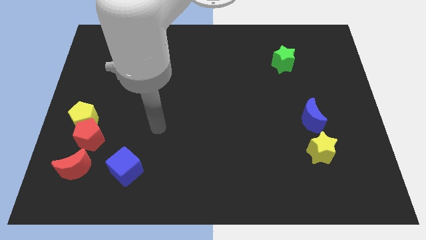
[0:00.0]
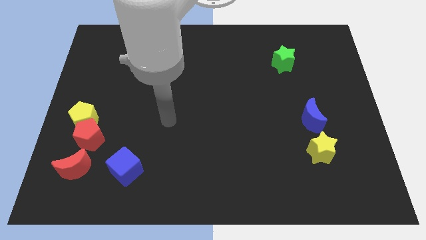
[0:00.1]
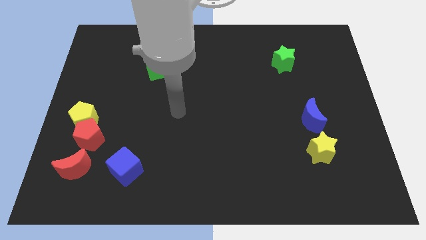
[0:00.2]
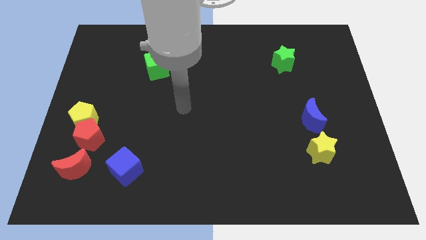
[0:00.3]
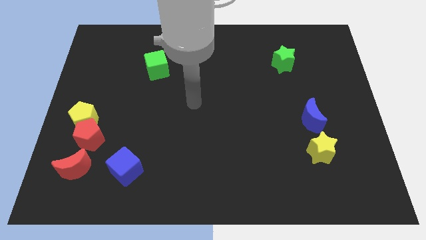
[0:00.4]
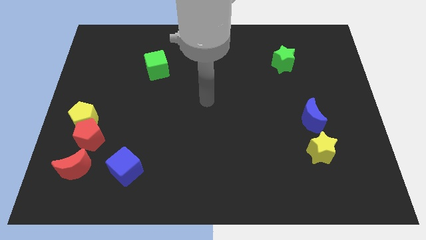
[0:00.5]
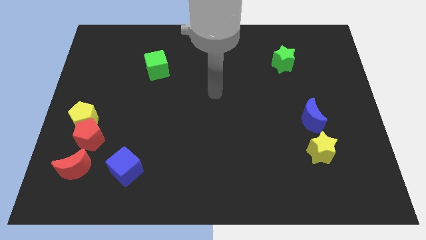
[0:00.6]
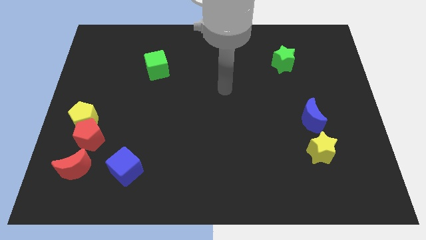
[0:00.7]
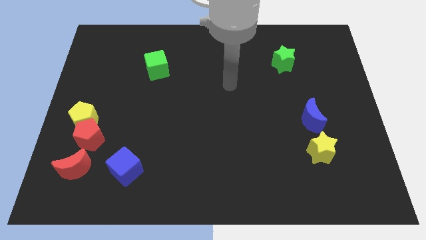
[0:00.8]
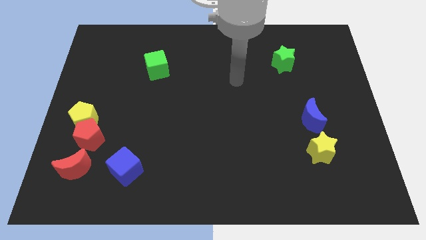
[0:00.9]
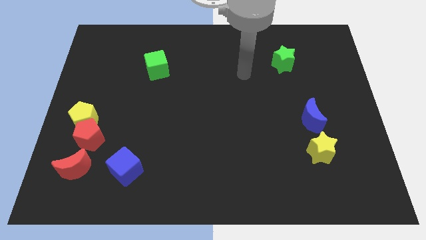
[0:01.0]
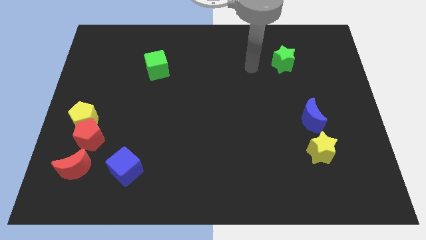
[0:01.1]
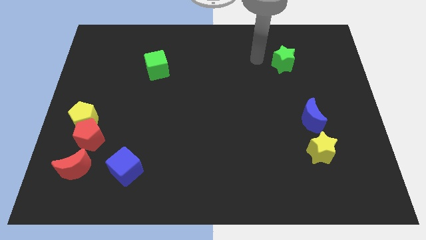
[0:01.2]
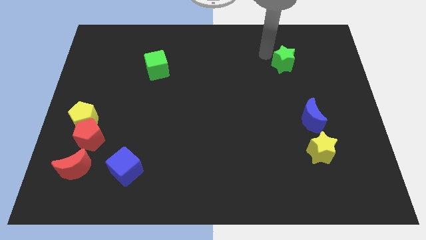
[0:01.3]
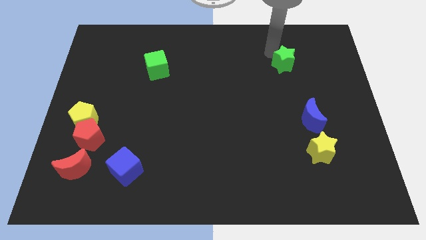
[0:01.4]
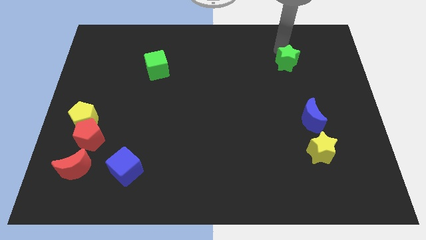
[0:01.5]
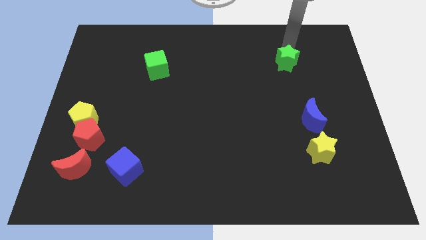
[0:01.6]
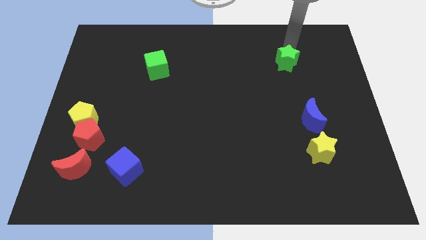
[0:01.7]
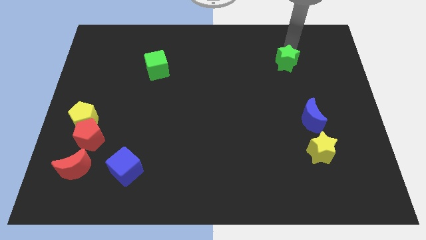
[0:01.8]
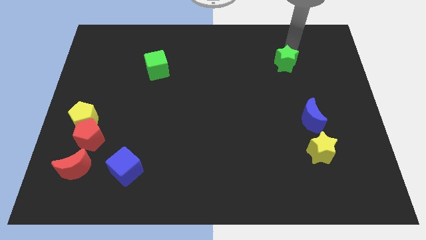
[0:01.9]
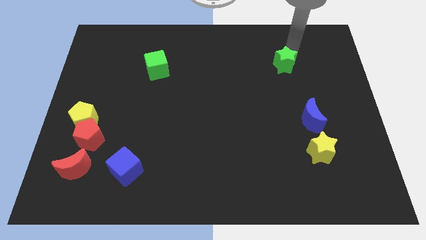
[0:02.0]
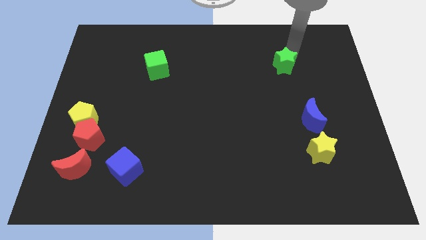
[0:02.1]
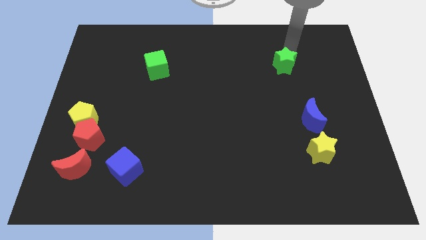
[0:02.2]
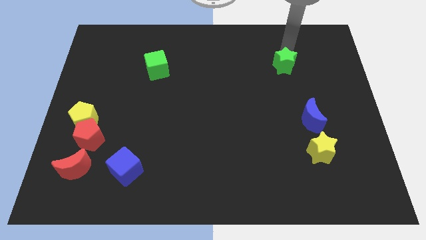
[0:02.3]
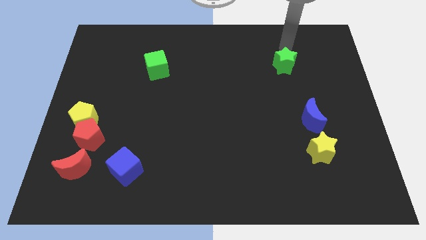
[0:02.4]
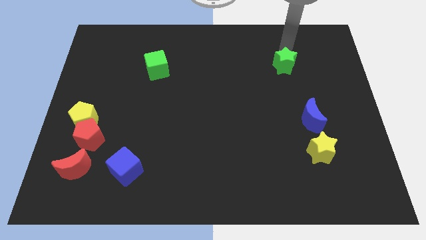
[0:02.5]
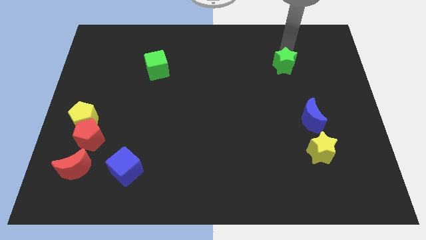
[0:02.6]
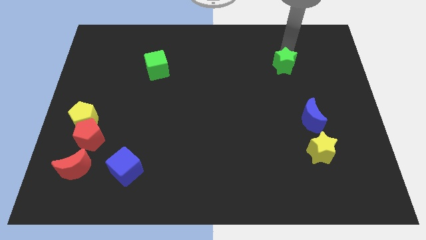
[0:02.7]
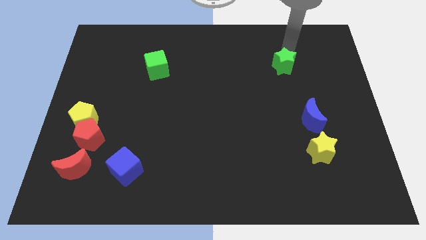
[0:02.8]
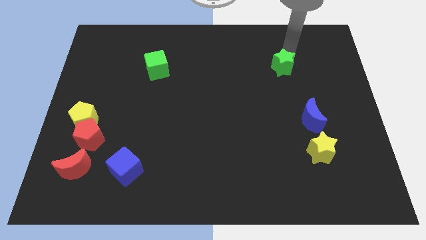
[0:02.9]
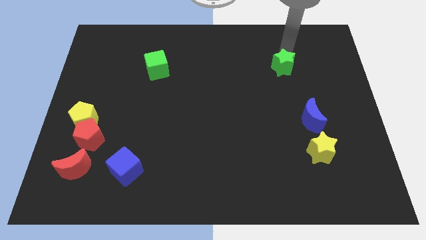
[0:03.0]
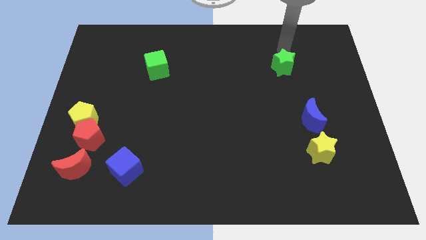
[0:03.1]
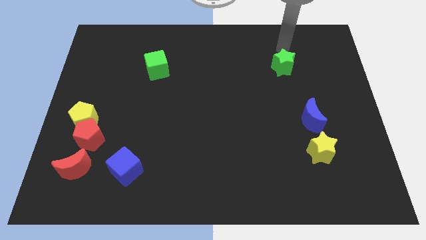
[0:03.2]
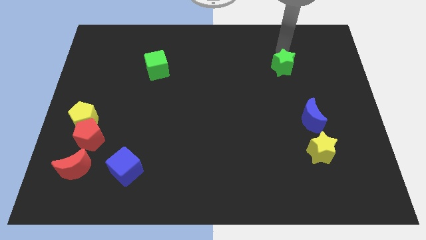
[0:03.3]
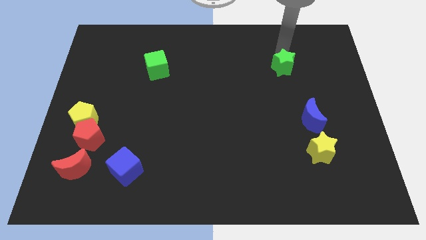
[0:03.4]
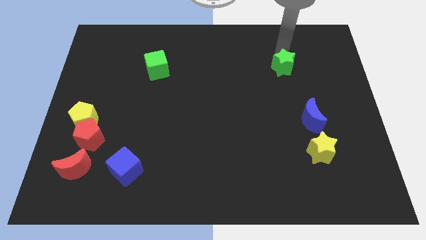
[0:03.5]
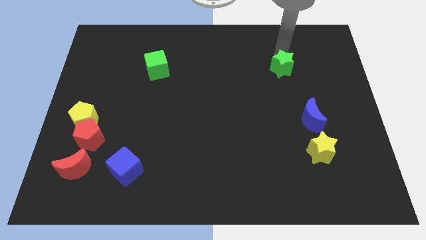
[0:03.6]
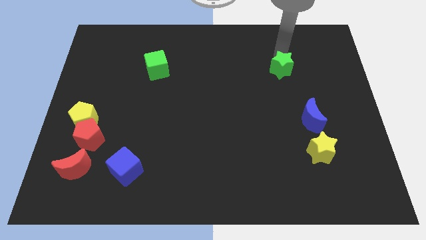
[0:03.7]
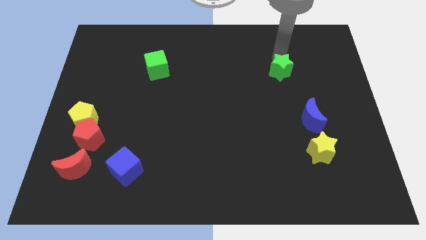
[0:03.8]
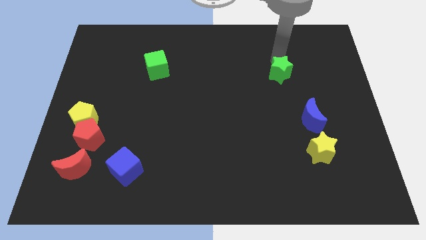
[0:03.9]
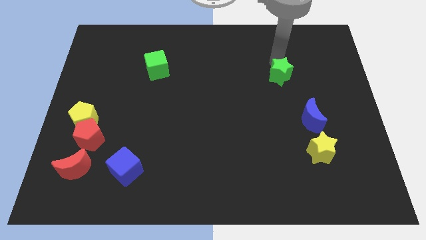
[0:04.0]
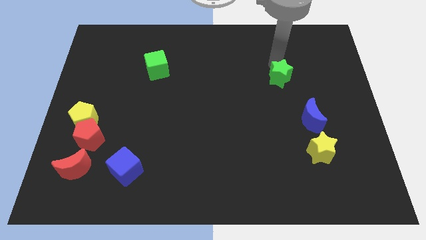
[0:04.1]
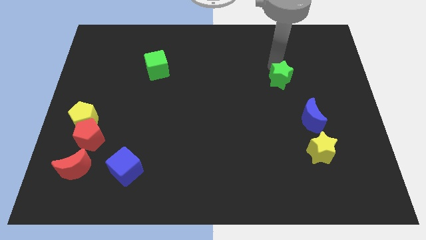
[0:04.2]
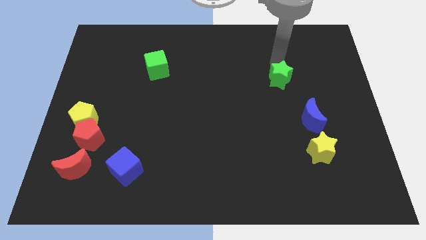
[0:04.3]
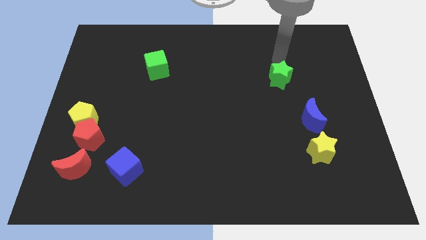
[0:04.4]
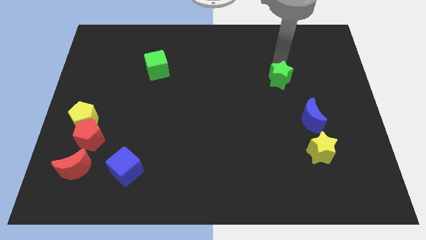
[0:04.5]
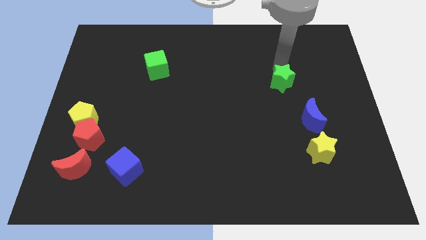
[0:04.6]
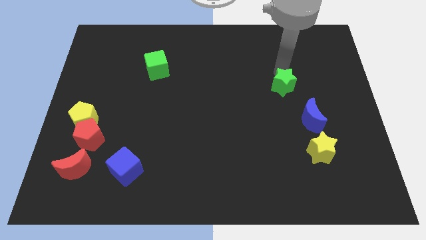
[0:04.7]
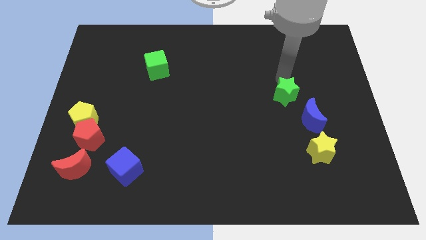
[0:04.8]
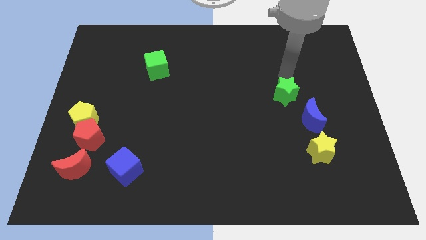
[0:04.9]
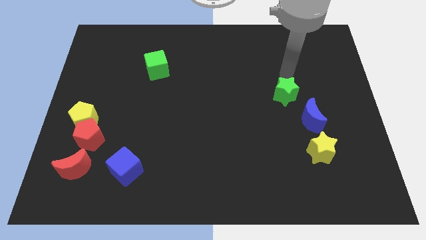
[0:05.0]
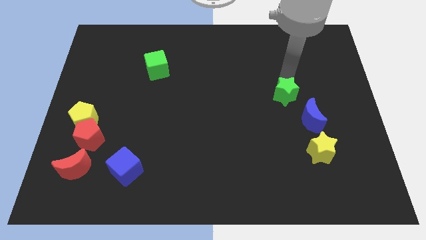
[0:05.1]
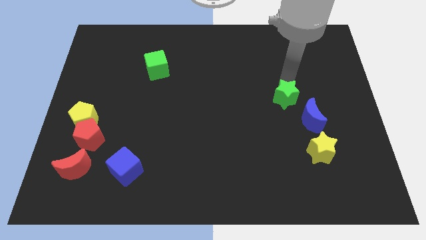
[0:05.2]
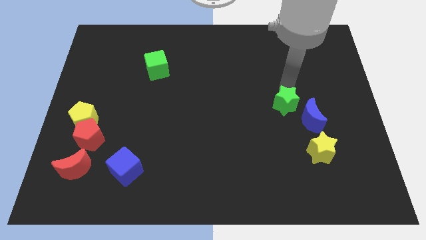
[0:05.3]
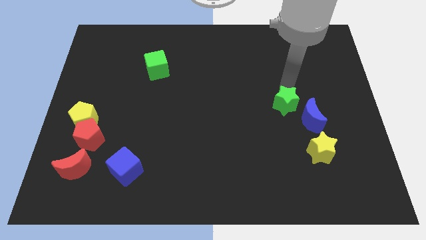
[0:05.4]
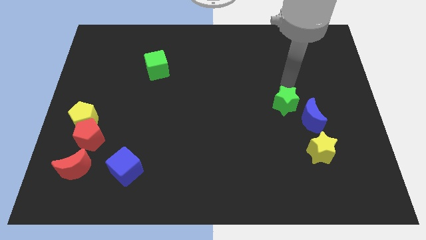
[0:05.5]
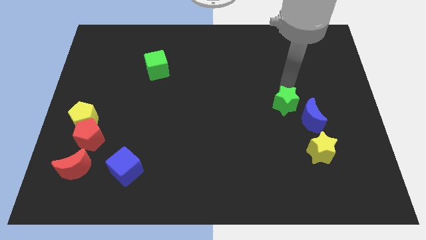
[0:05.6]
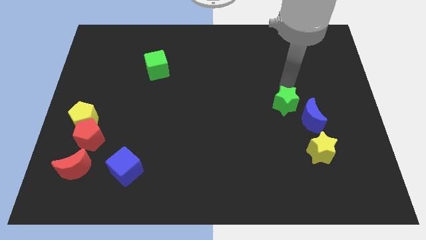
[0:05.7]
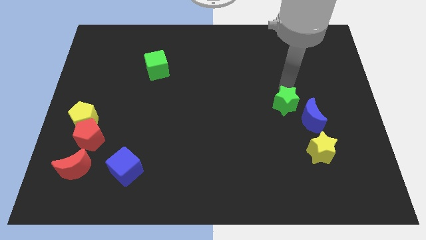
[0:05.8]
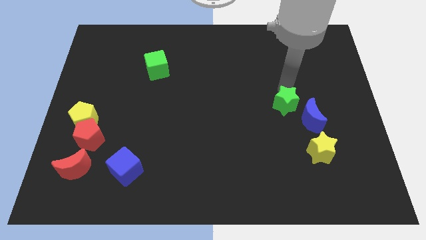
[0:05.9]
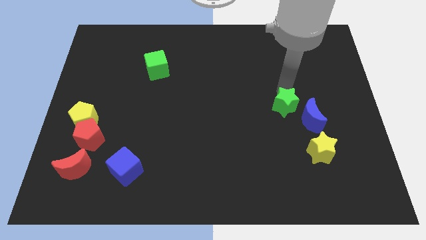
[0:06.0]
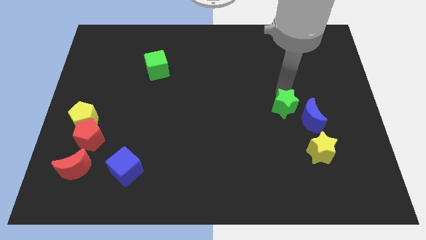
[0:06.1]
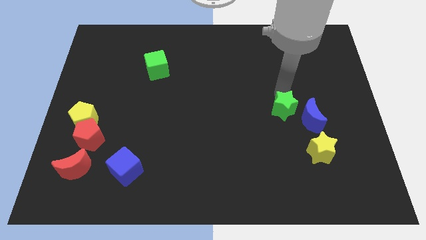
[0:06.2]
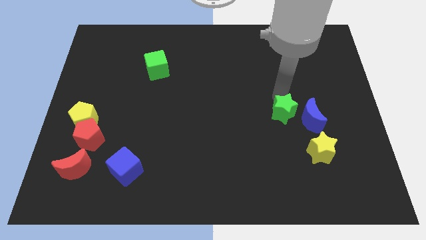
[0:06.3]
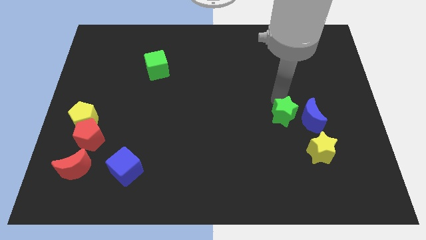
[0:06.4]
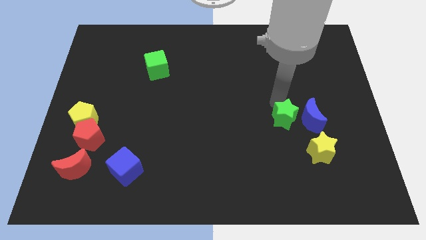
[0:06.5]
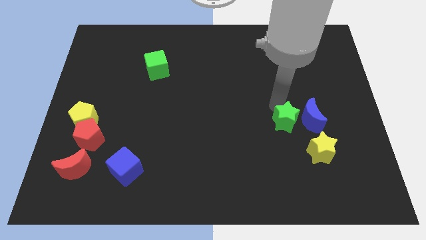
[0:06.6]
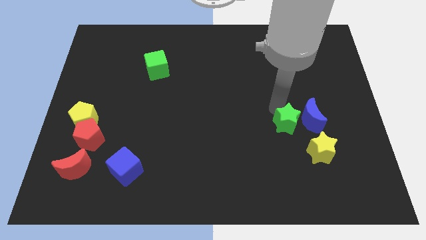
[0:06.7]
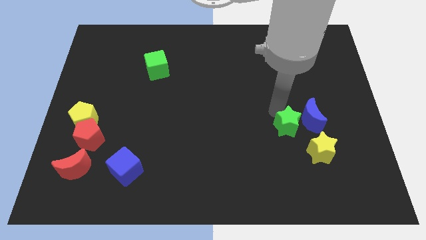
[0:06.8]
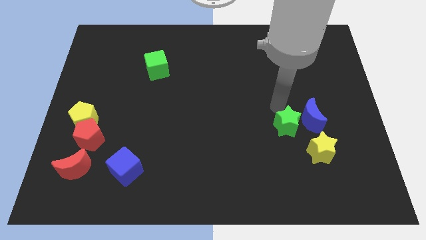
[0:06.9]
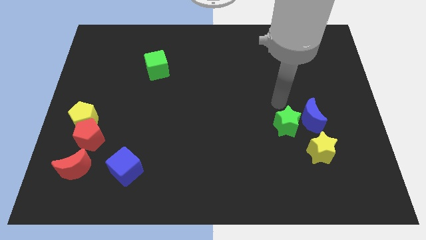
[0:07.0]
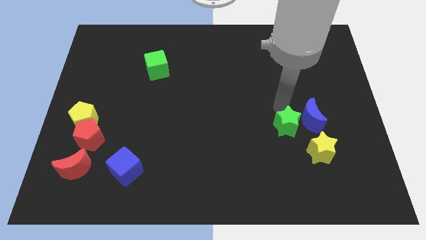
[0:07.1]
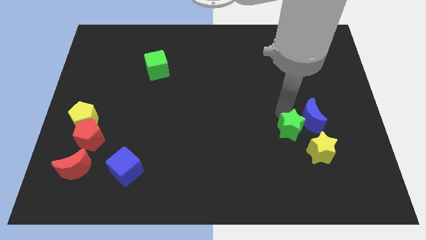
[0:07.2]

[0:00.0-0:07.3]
move the green star downwards

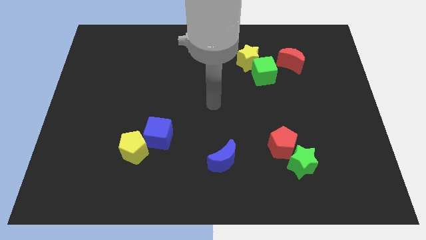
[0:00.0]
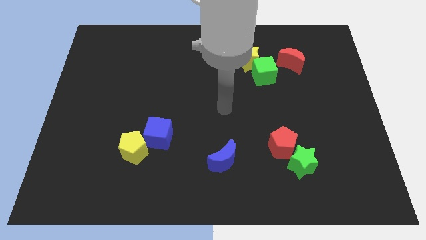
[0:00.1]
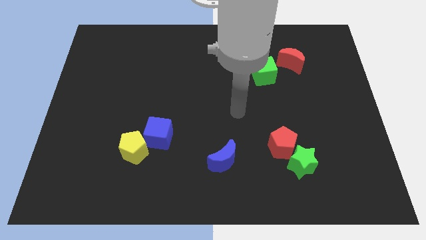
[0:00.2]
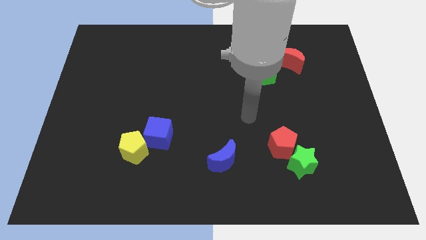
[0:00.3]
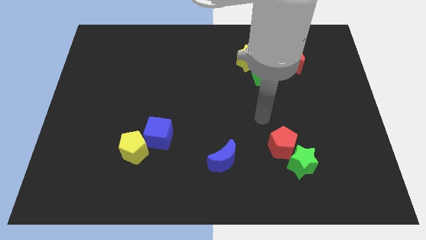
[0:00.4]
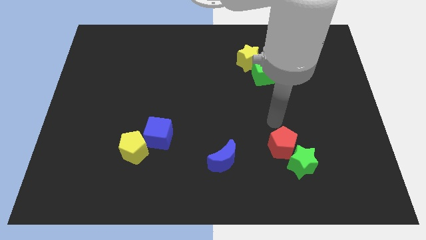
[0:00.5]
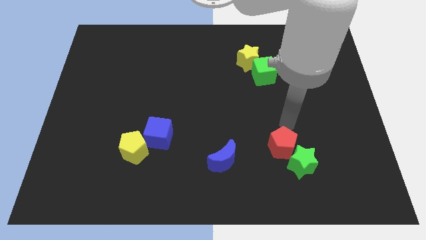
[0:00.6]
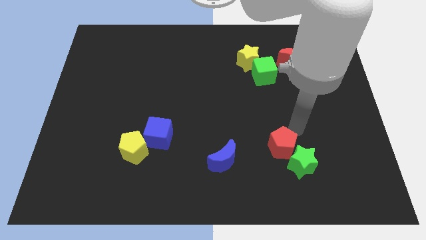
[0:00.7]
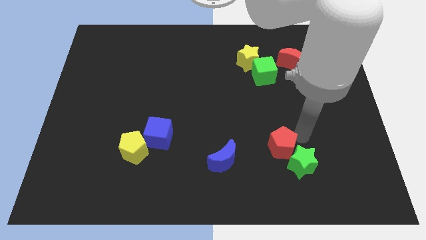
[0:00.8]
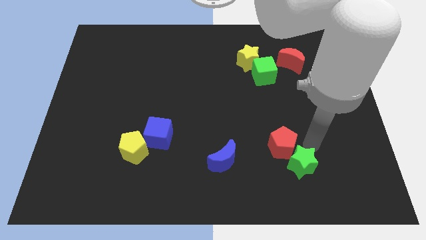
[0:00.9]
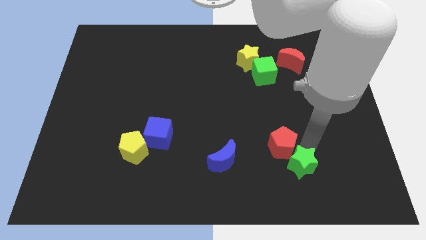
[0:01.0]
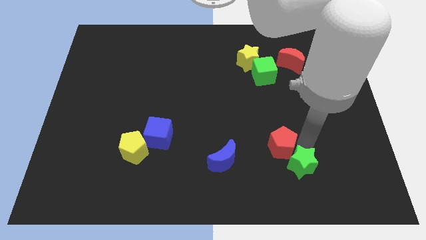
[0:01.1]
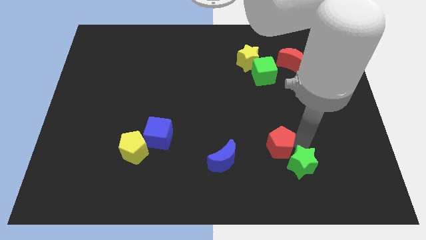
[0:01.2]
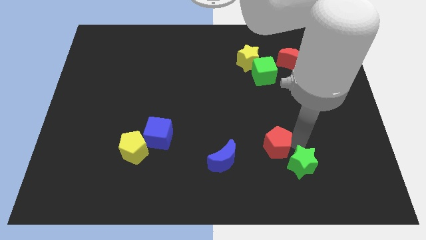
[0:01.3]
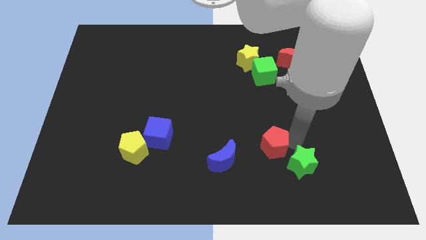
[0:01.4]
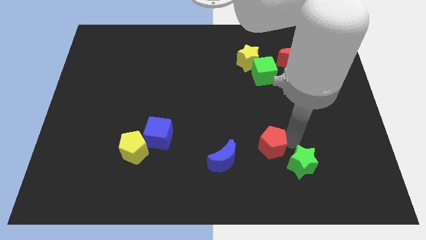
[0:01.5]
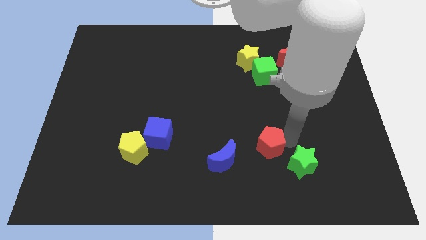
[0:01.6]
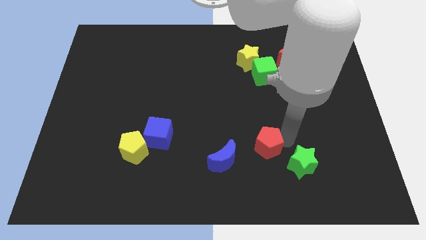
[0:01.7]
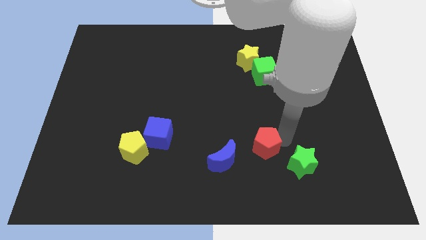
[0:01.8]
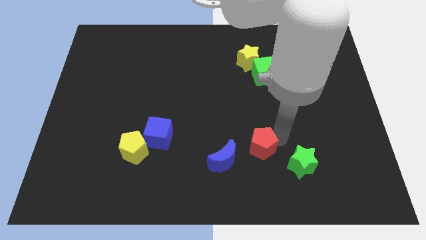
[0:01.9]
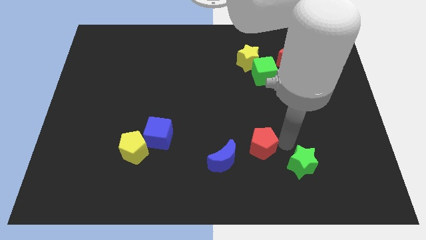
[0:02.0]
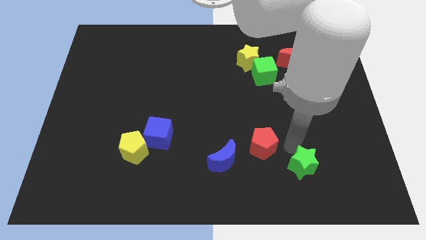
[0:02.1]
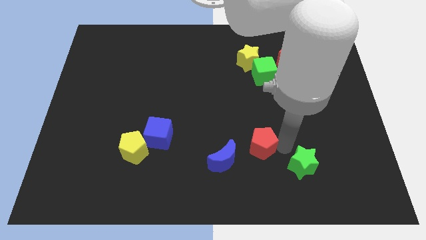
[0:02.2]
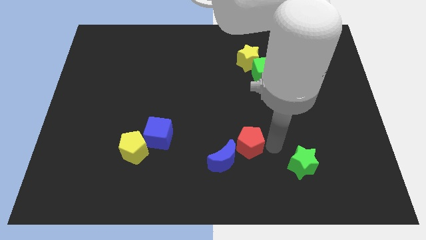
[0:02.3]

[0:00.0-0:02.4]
slightly move the red pentagon to the left
